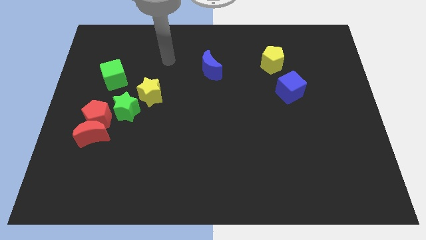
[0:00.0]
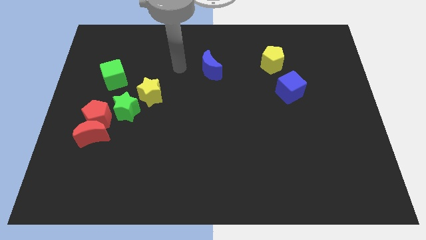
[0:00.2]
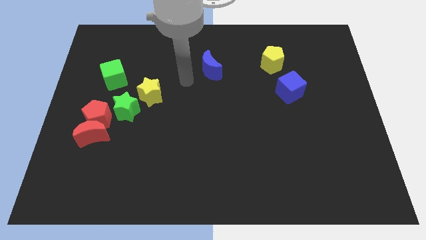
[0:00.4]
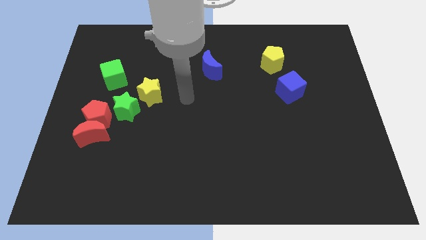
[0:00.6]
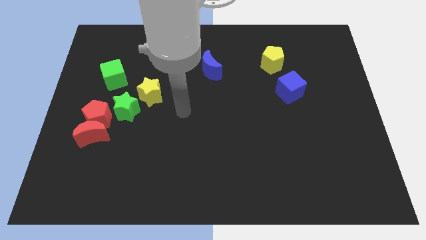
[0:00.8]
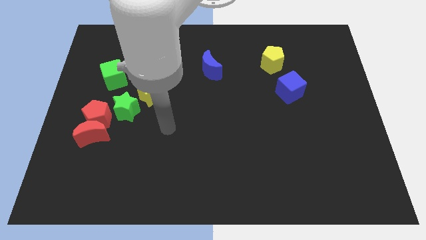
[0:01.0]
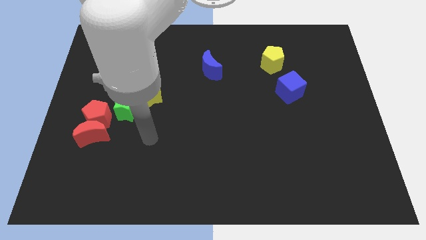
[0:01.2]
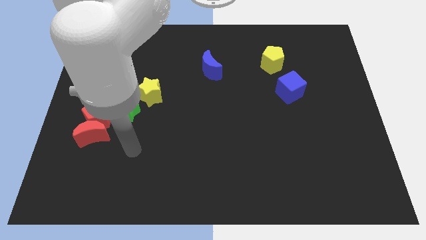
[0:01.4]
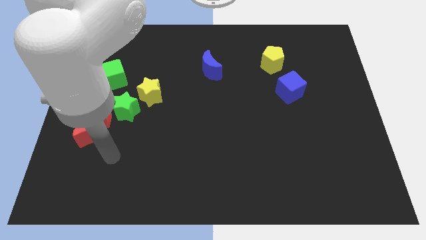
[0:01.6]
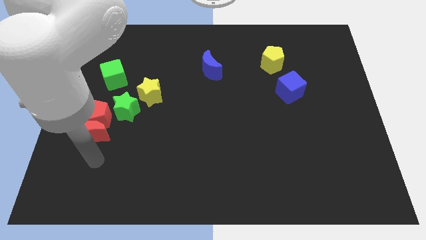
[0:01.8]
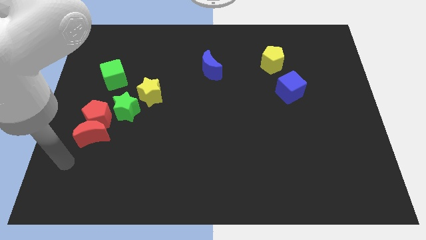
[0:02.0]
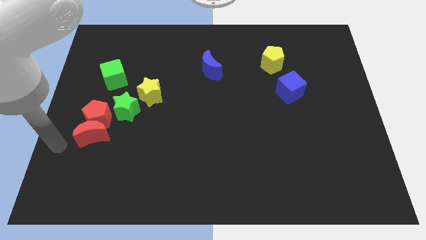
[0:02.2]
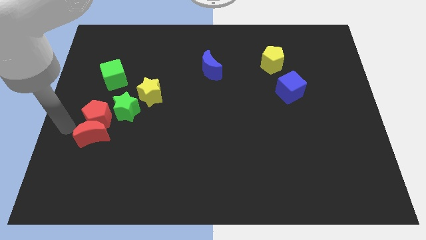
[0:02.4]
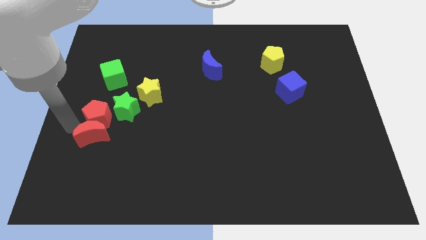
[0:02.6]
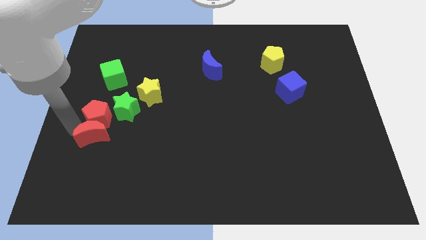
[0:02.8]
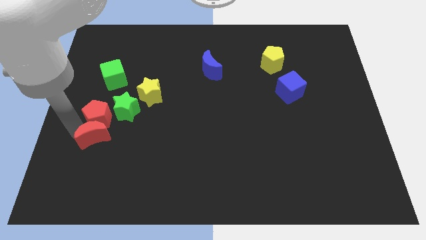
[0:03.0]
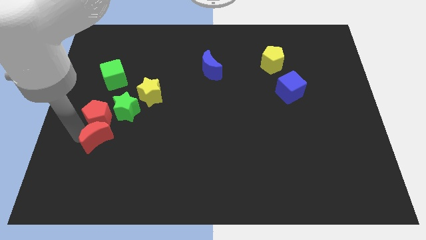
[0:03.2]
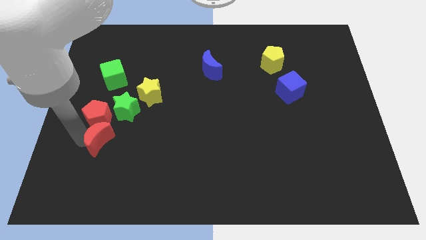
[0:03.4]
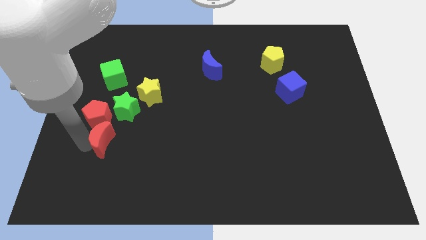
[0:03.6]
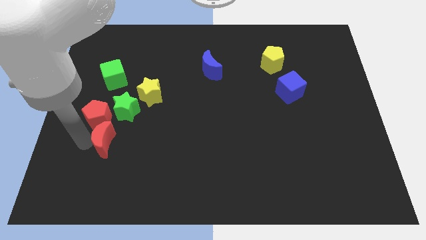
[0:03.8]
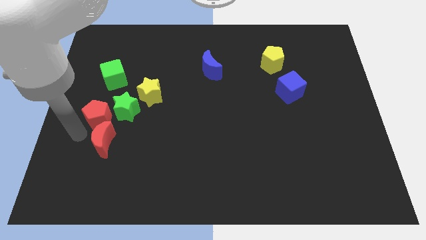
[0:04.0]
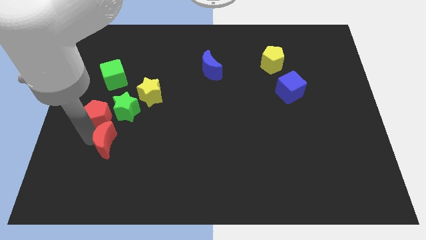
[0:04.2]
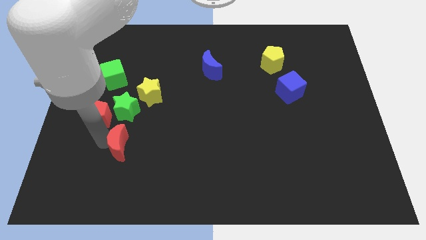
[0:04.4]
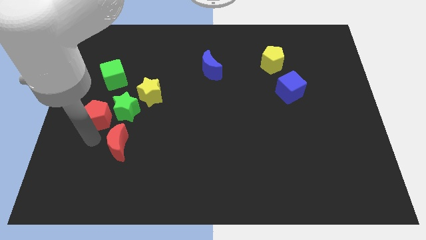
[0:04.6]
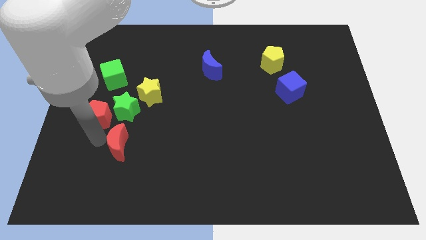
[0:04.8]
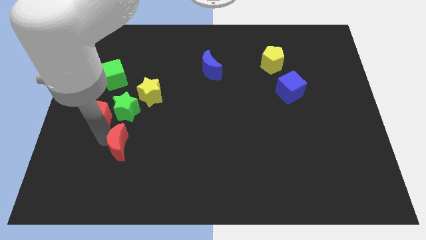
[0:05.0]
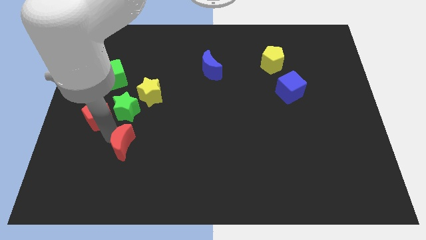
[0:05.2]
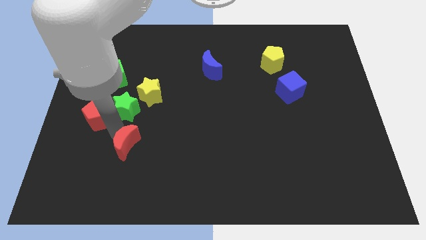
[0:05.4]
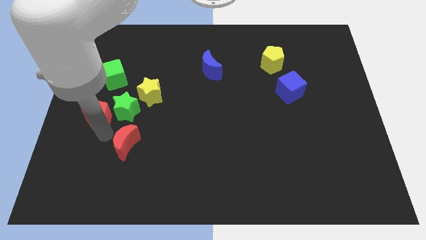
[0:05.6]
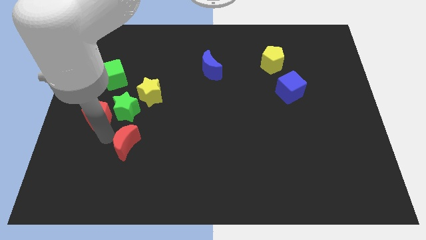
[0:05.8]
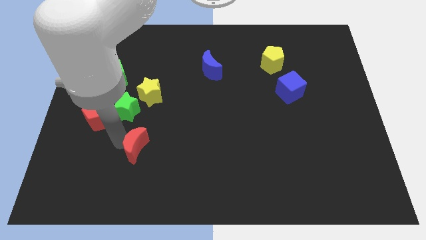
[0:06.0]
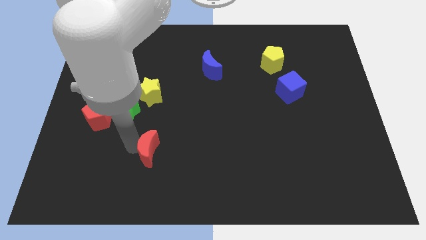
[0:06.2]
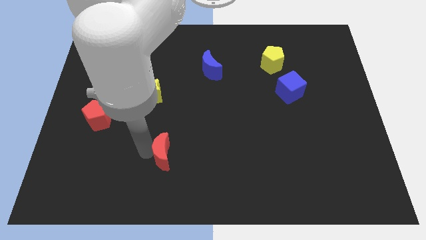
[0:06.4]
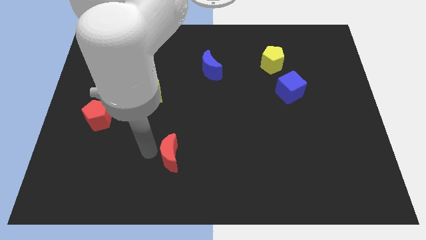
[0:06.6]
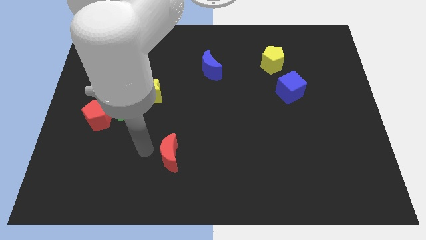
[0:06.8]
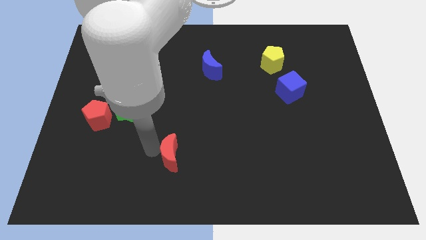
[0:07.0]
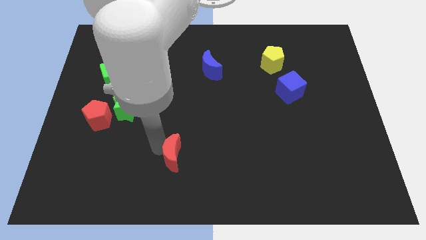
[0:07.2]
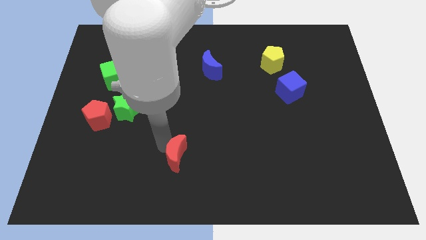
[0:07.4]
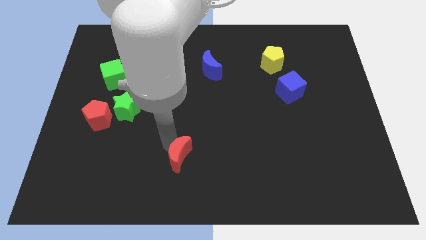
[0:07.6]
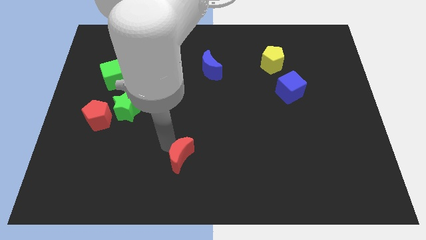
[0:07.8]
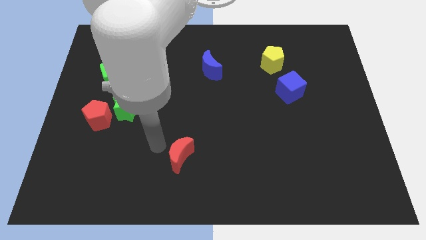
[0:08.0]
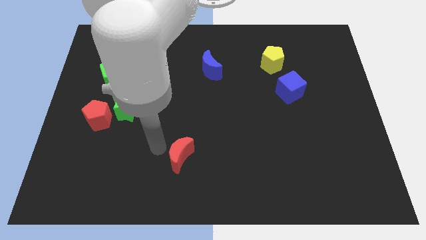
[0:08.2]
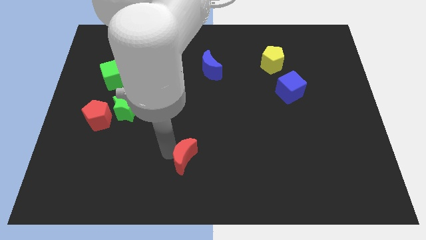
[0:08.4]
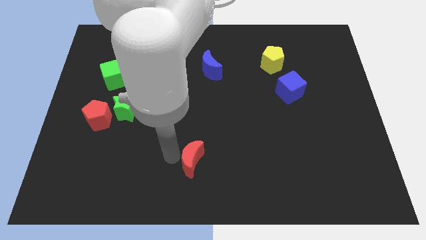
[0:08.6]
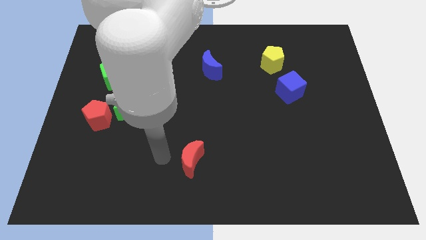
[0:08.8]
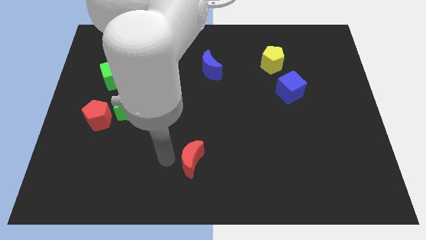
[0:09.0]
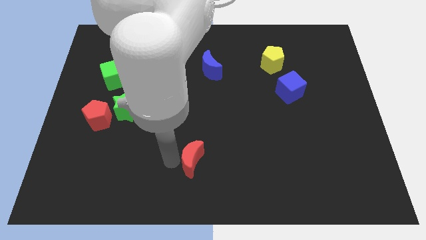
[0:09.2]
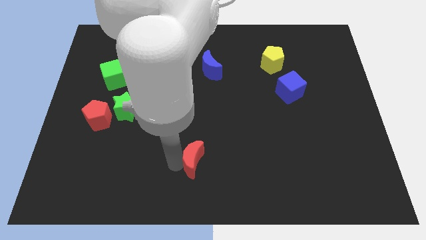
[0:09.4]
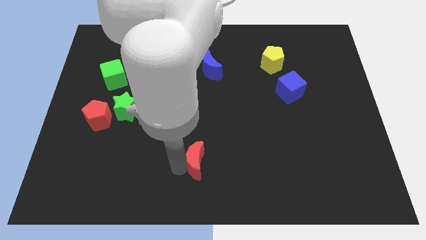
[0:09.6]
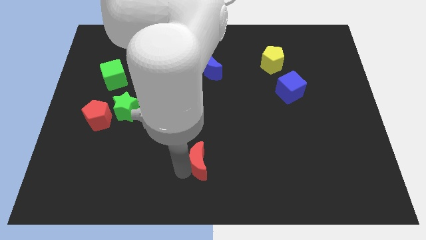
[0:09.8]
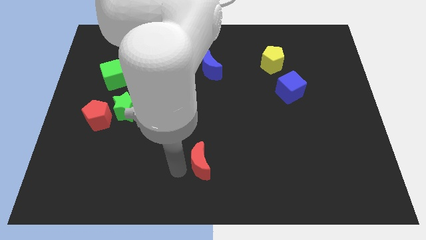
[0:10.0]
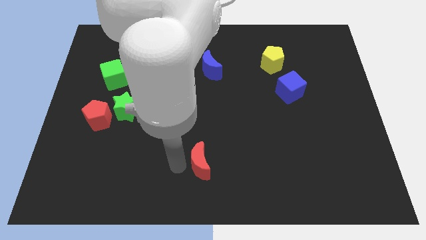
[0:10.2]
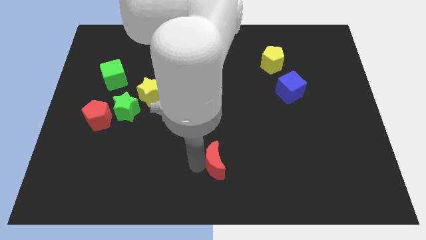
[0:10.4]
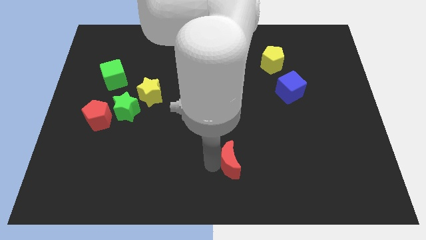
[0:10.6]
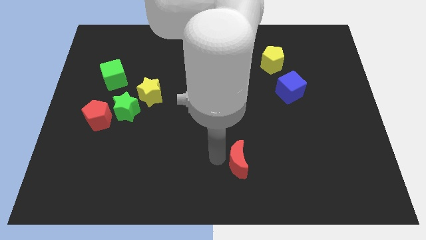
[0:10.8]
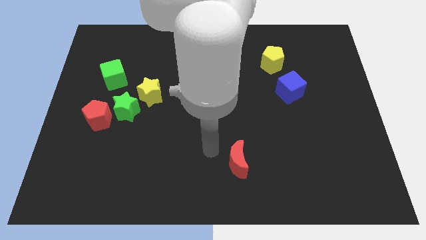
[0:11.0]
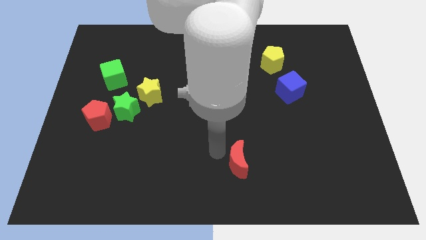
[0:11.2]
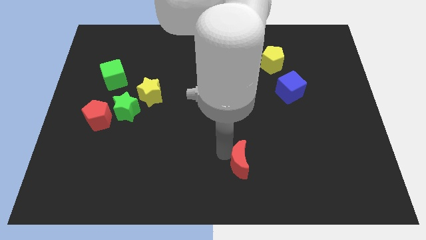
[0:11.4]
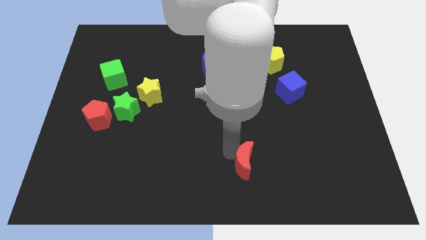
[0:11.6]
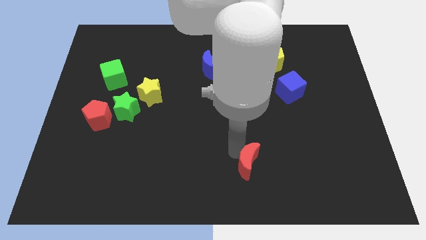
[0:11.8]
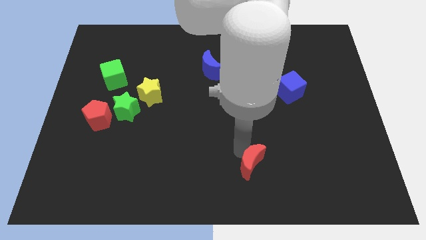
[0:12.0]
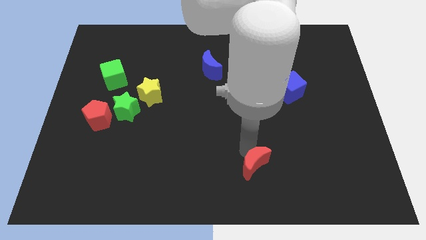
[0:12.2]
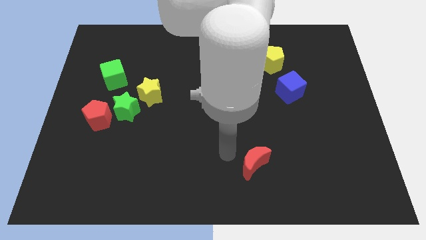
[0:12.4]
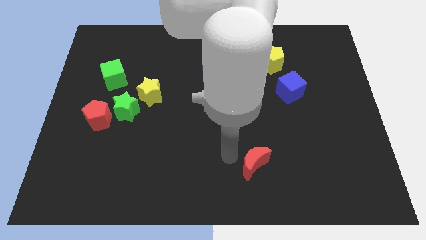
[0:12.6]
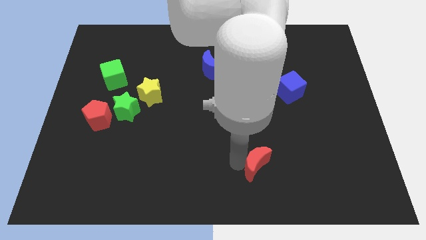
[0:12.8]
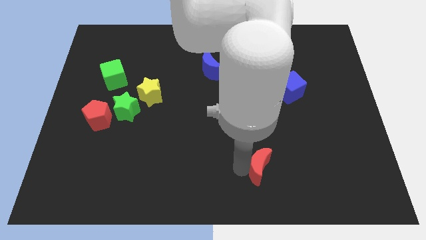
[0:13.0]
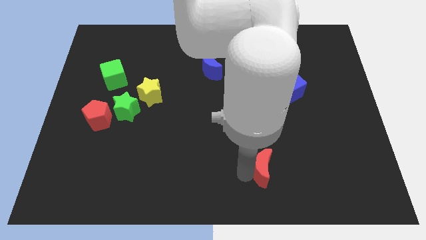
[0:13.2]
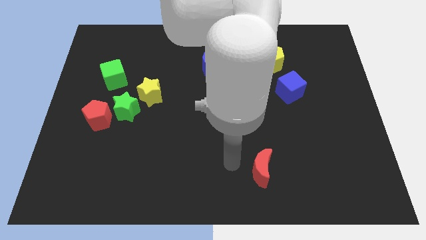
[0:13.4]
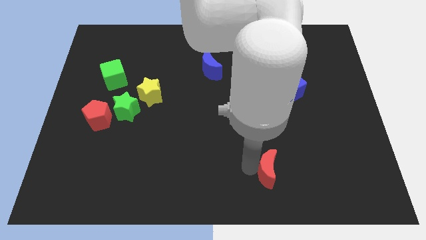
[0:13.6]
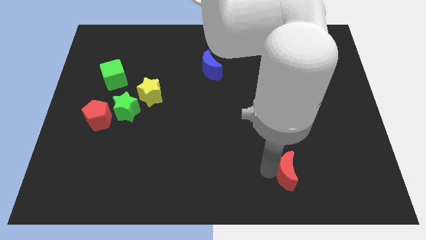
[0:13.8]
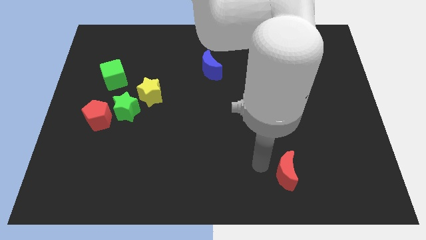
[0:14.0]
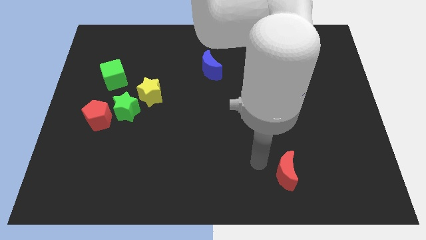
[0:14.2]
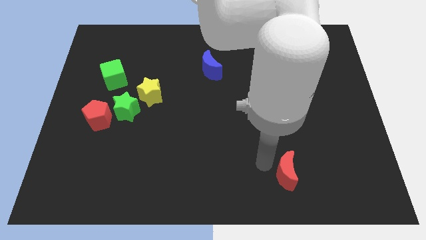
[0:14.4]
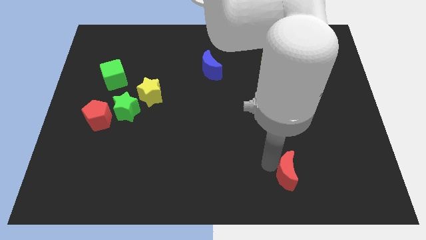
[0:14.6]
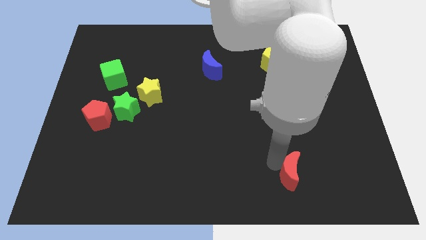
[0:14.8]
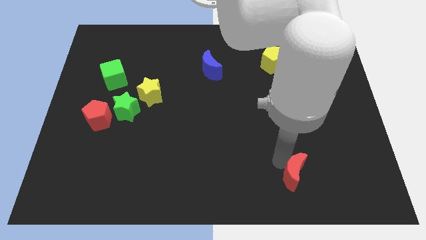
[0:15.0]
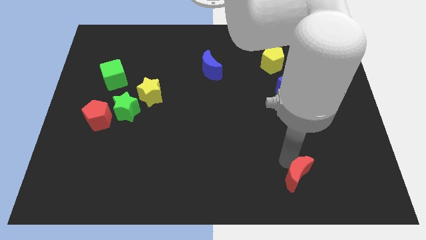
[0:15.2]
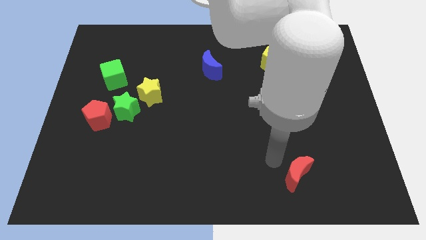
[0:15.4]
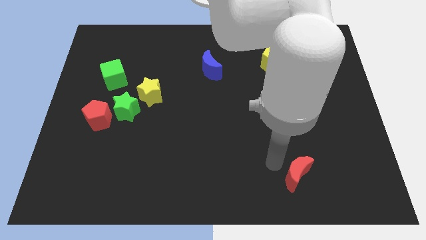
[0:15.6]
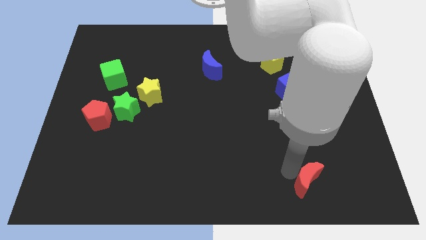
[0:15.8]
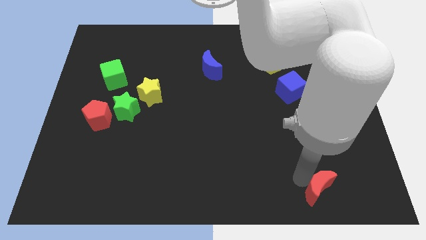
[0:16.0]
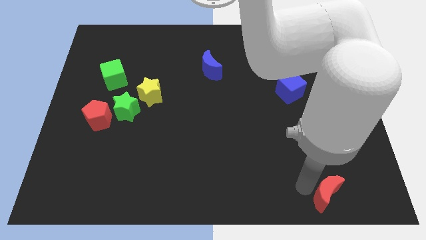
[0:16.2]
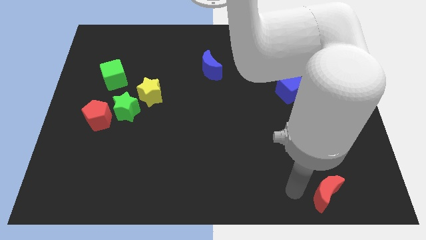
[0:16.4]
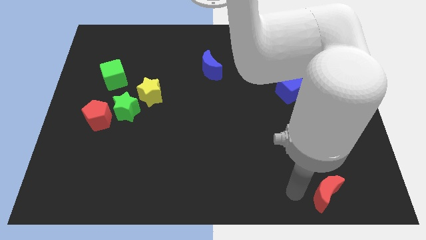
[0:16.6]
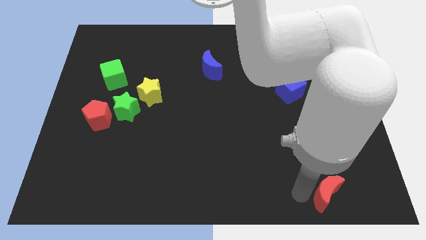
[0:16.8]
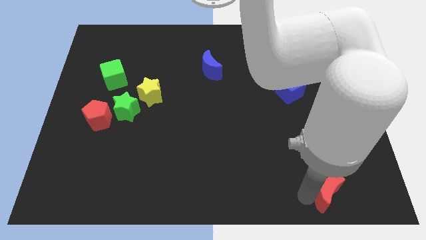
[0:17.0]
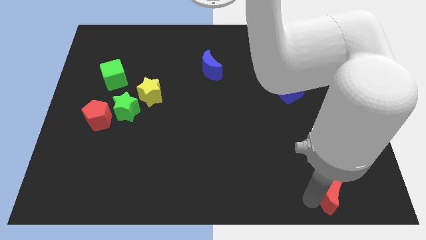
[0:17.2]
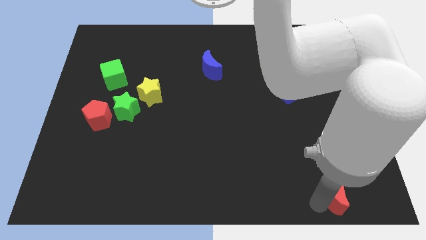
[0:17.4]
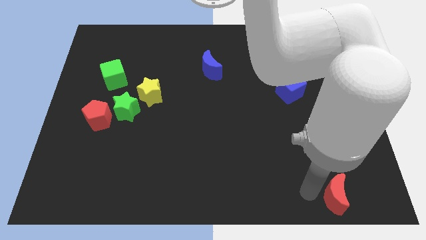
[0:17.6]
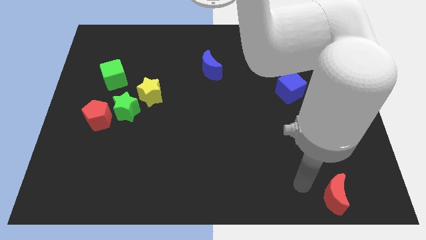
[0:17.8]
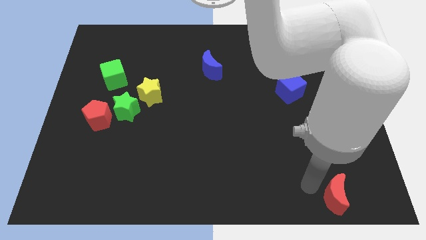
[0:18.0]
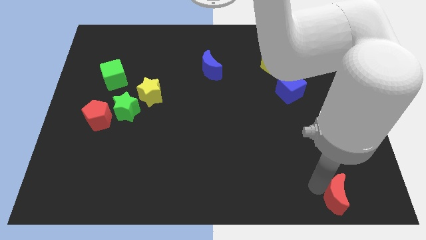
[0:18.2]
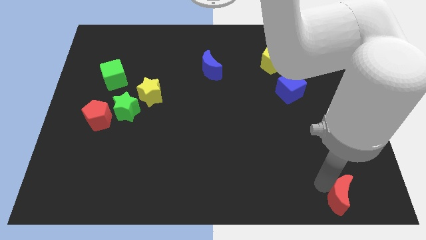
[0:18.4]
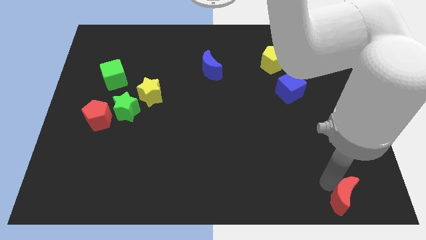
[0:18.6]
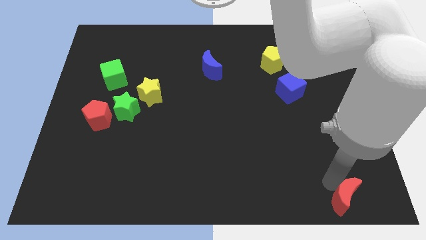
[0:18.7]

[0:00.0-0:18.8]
move the red moon to the bottom right
